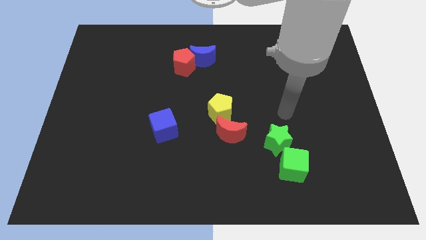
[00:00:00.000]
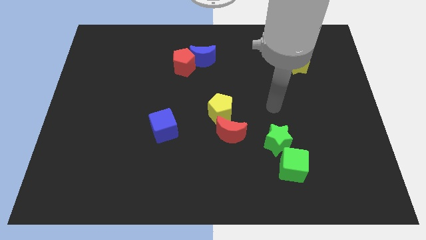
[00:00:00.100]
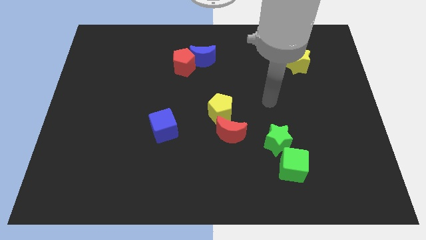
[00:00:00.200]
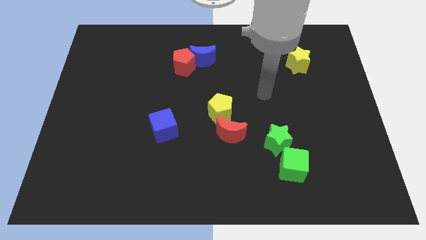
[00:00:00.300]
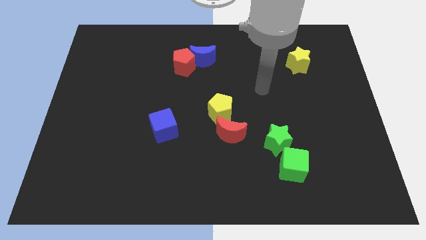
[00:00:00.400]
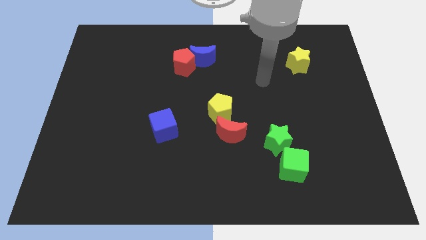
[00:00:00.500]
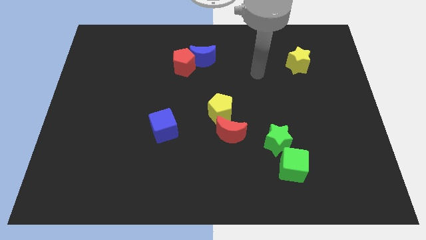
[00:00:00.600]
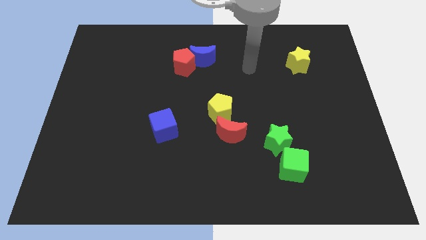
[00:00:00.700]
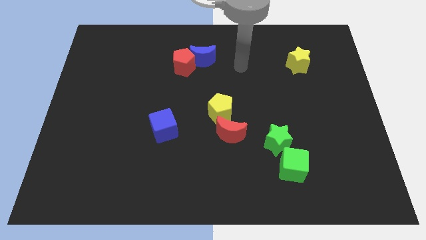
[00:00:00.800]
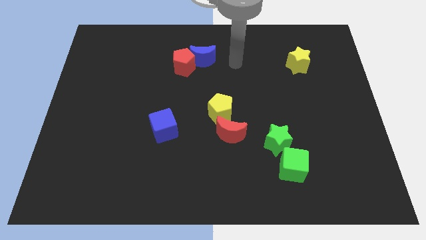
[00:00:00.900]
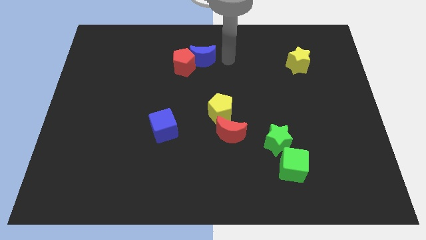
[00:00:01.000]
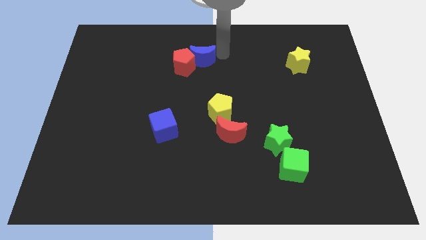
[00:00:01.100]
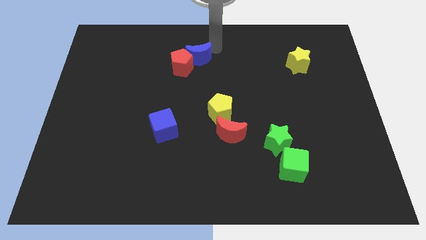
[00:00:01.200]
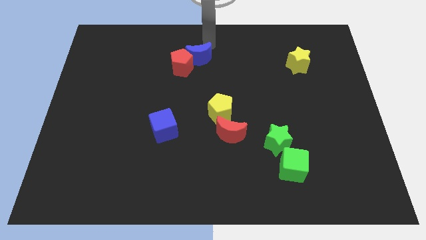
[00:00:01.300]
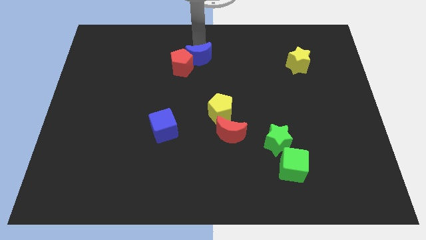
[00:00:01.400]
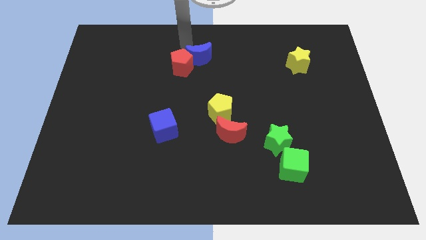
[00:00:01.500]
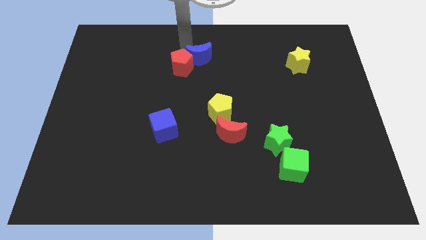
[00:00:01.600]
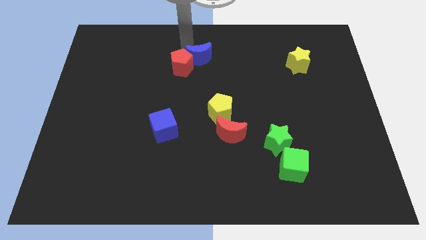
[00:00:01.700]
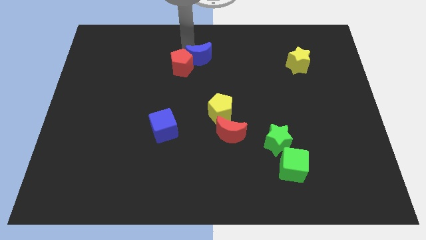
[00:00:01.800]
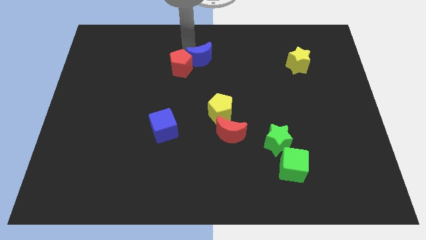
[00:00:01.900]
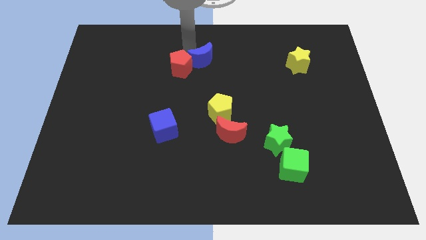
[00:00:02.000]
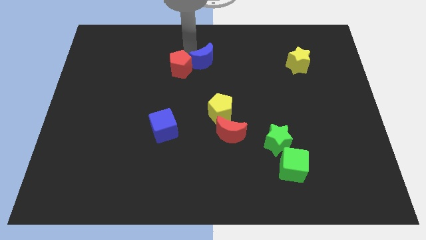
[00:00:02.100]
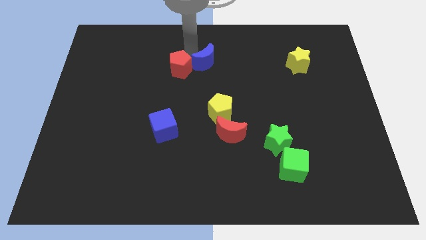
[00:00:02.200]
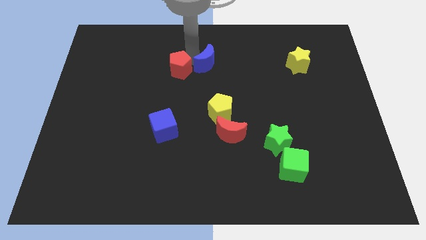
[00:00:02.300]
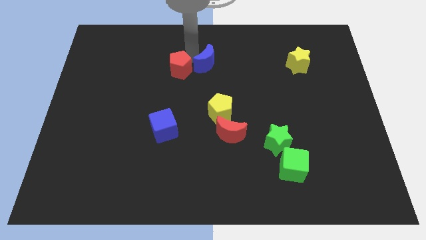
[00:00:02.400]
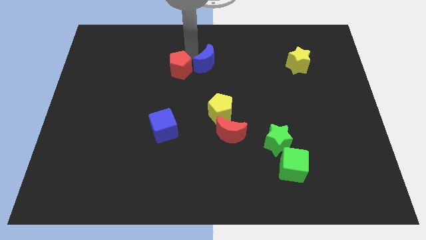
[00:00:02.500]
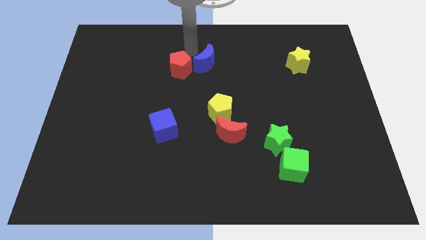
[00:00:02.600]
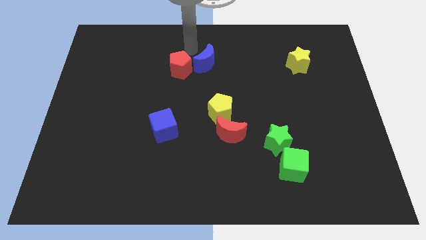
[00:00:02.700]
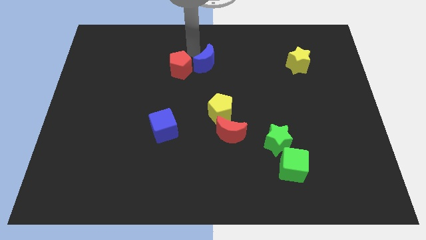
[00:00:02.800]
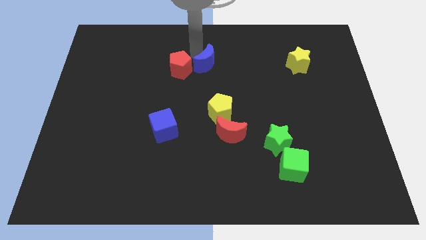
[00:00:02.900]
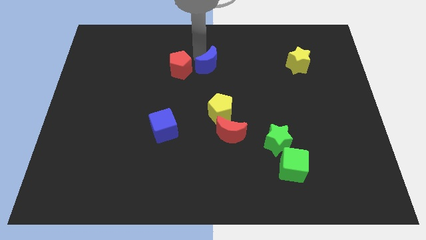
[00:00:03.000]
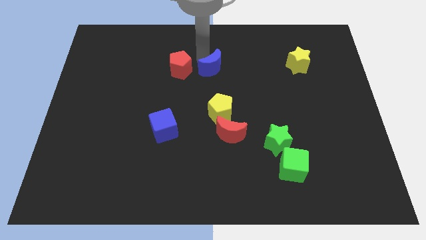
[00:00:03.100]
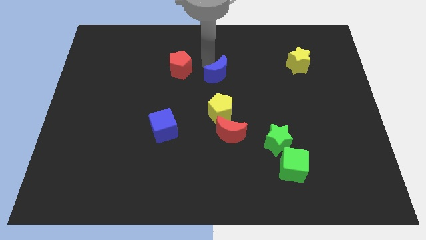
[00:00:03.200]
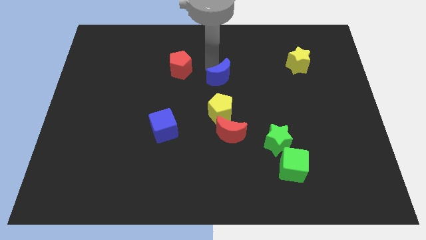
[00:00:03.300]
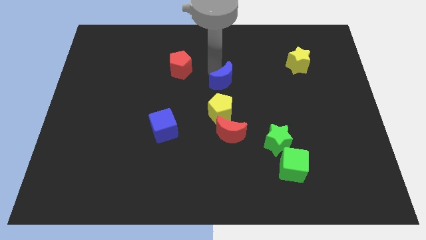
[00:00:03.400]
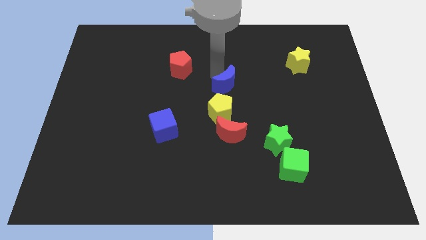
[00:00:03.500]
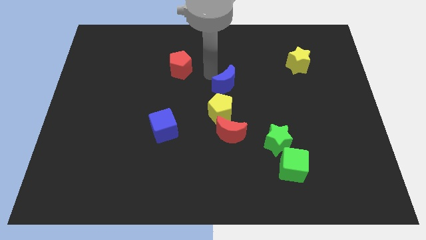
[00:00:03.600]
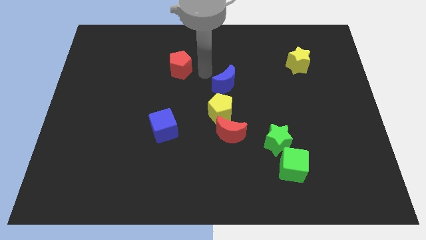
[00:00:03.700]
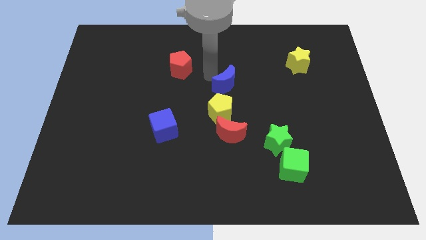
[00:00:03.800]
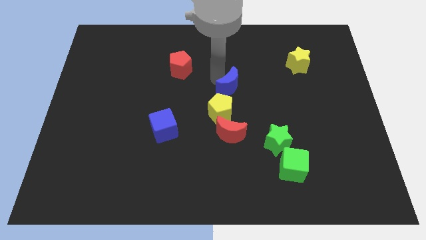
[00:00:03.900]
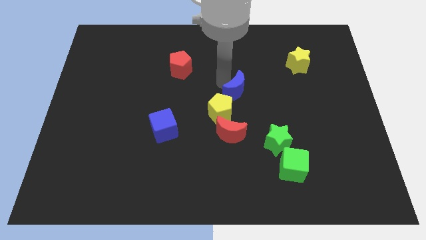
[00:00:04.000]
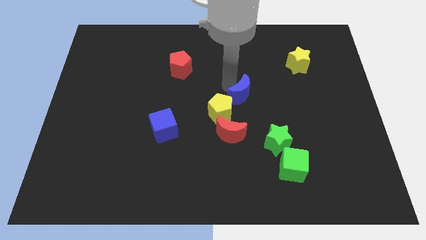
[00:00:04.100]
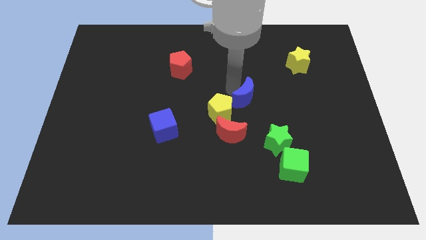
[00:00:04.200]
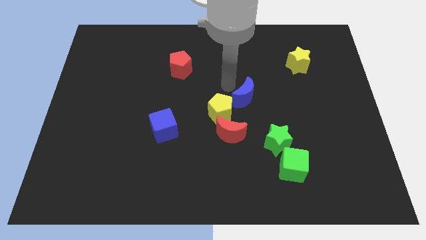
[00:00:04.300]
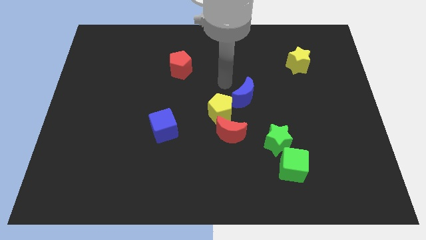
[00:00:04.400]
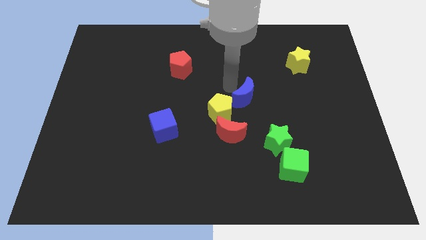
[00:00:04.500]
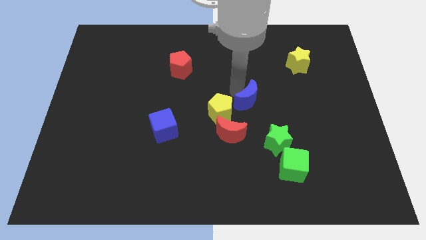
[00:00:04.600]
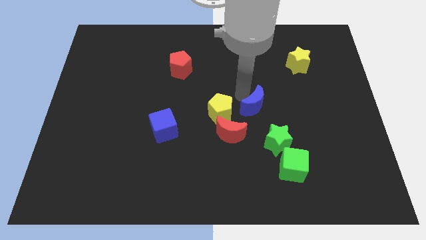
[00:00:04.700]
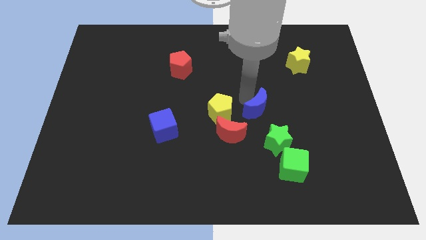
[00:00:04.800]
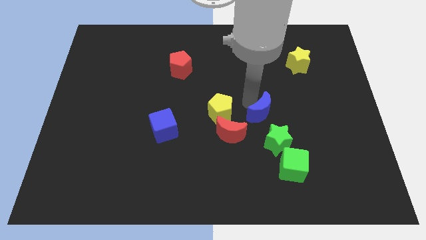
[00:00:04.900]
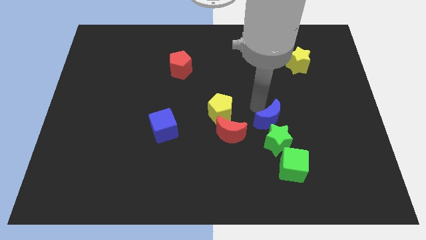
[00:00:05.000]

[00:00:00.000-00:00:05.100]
move the blue moon towards the green star

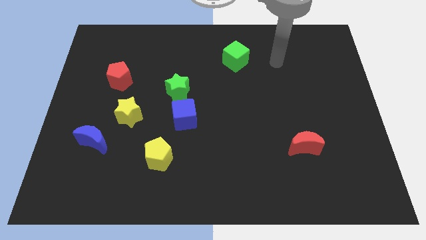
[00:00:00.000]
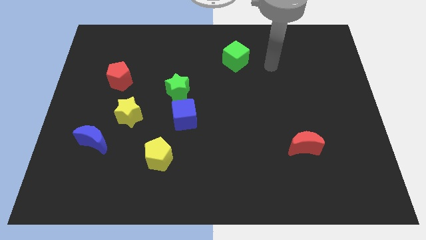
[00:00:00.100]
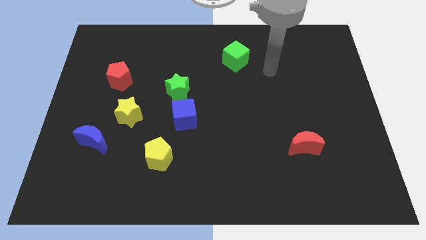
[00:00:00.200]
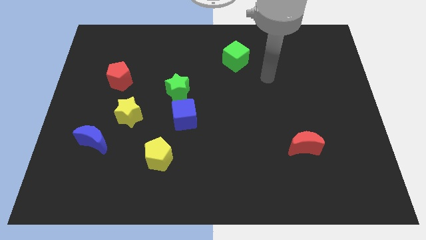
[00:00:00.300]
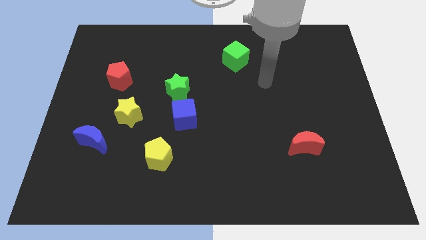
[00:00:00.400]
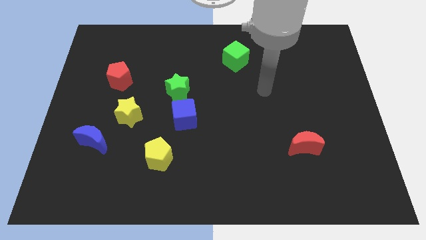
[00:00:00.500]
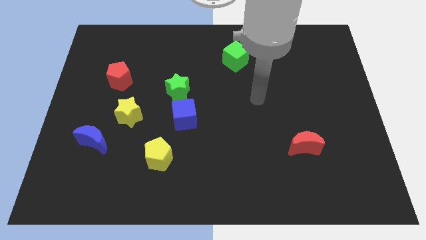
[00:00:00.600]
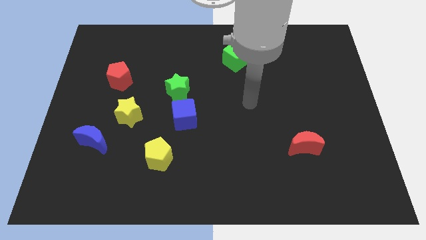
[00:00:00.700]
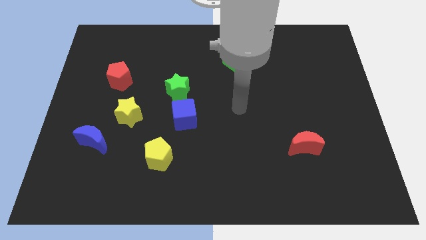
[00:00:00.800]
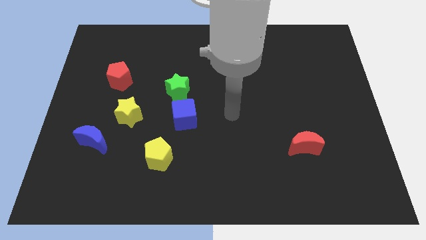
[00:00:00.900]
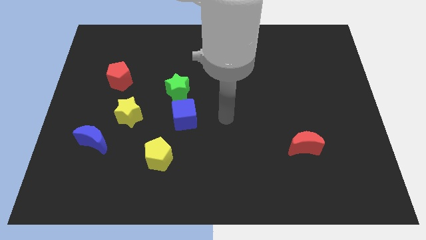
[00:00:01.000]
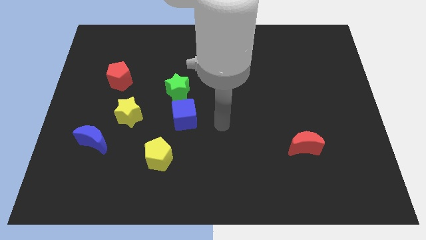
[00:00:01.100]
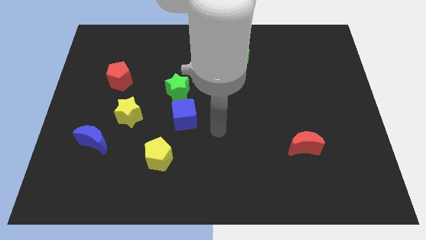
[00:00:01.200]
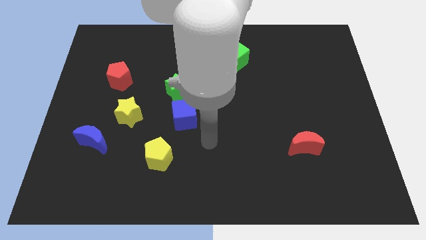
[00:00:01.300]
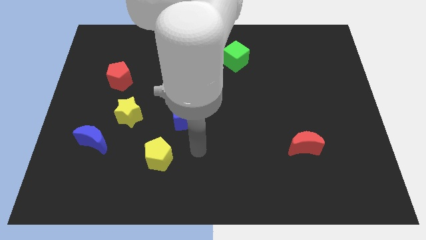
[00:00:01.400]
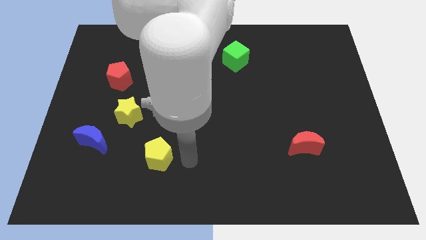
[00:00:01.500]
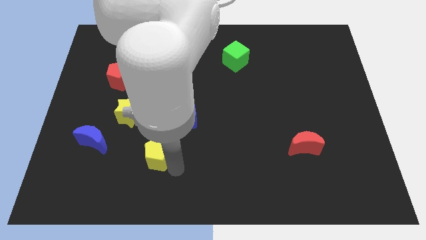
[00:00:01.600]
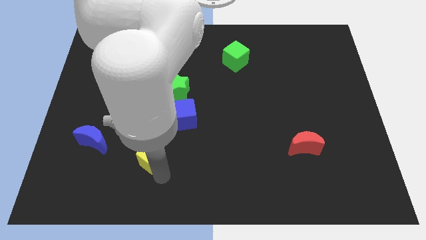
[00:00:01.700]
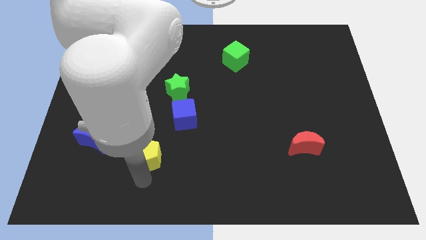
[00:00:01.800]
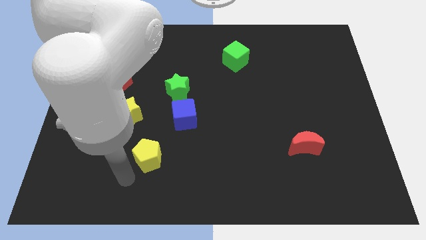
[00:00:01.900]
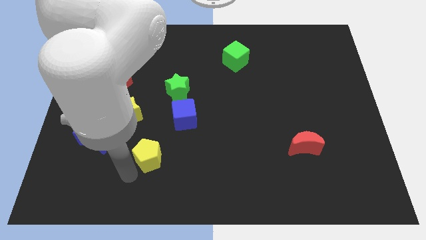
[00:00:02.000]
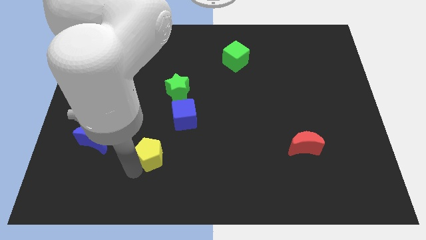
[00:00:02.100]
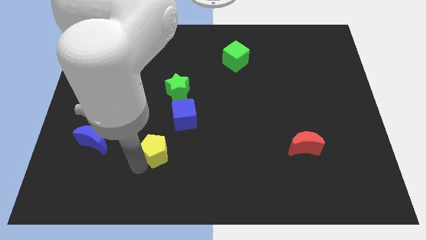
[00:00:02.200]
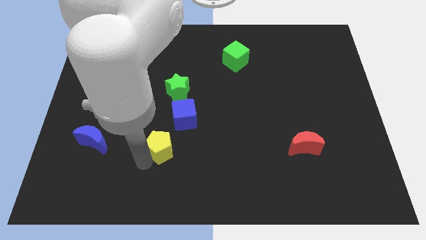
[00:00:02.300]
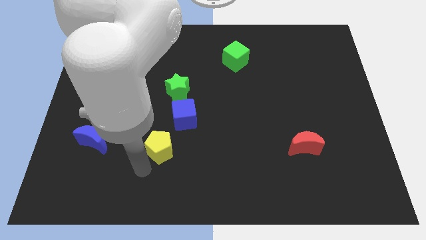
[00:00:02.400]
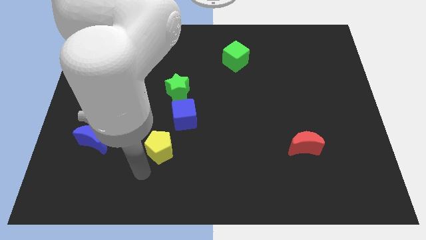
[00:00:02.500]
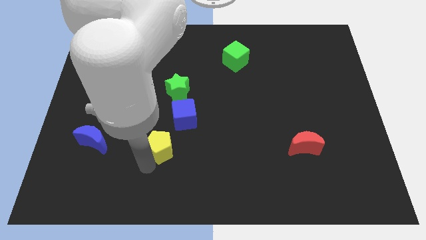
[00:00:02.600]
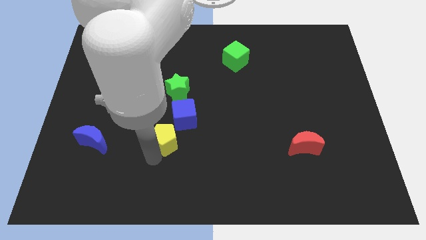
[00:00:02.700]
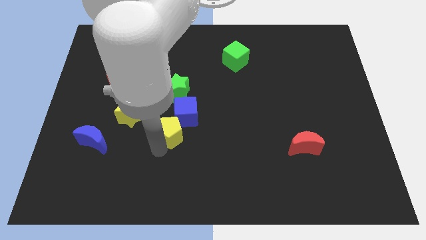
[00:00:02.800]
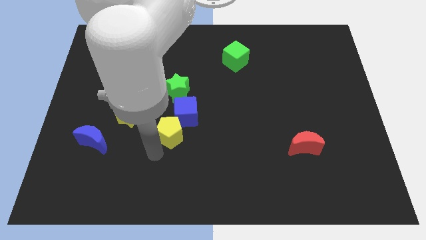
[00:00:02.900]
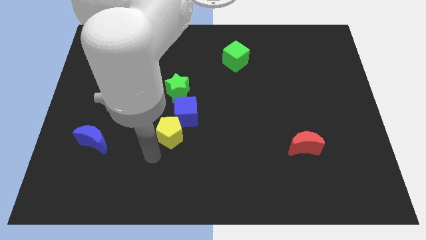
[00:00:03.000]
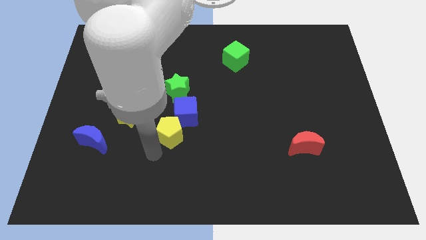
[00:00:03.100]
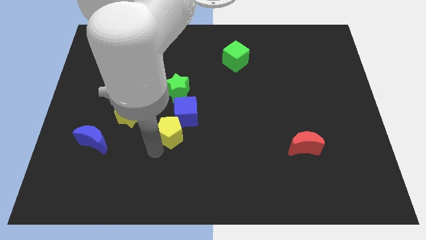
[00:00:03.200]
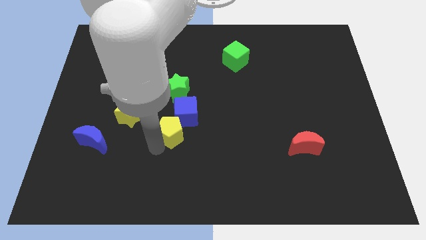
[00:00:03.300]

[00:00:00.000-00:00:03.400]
push the yellow pentagon towards the blue cube
